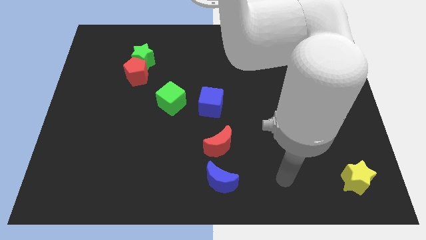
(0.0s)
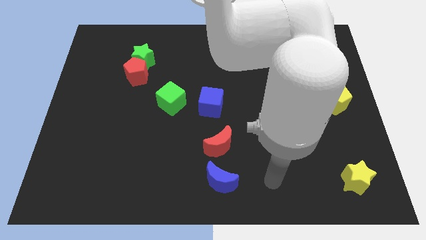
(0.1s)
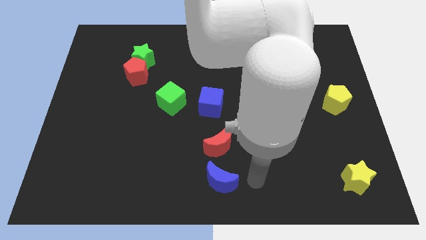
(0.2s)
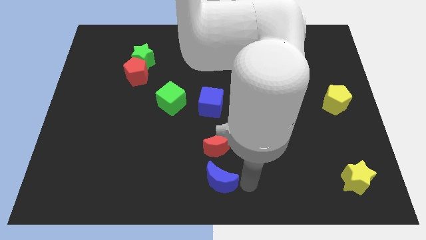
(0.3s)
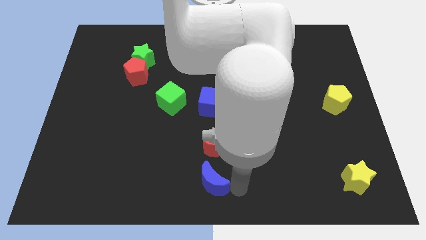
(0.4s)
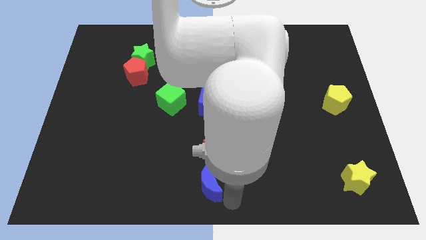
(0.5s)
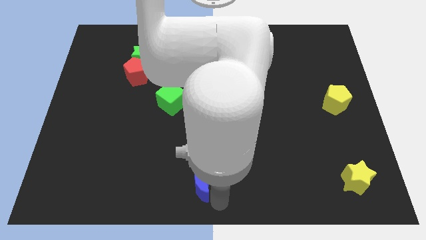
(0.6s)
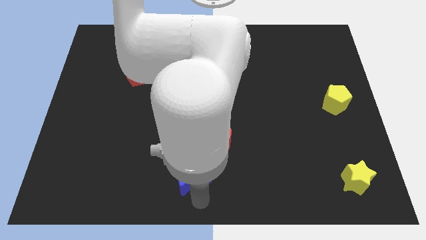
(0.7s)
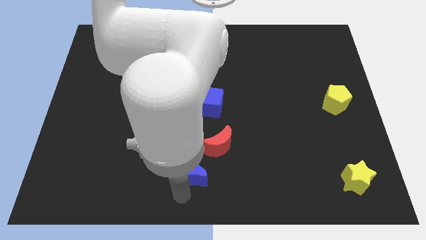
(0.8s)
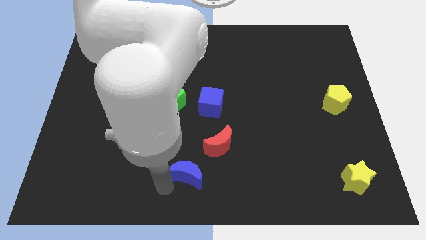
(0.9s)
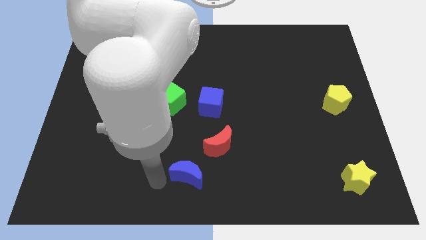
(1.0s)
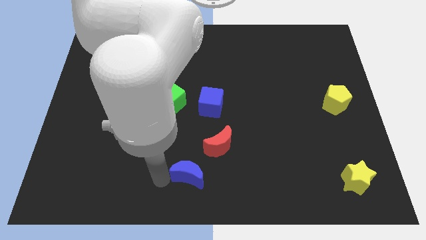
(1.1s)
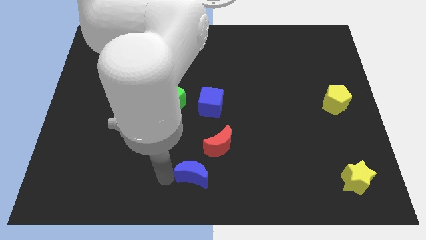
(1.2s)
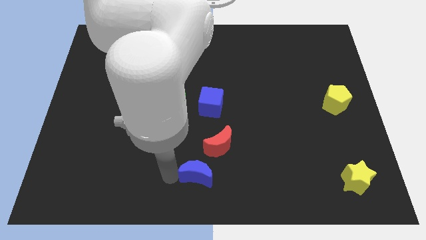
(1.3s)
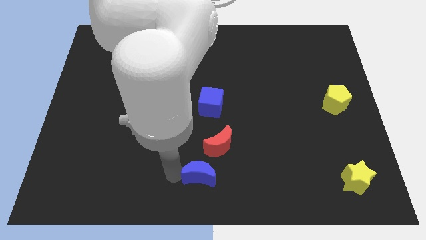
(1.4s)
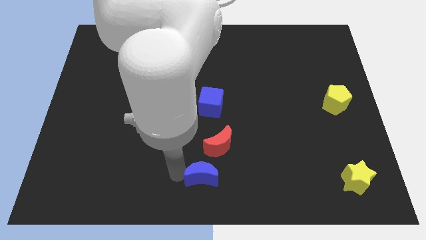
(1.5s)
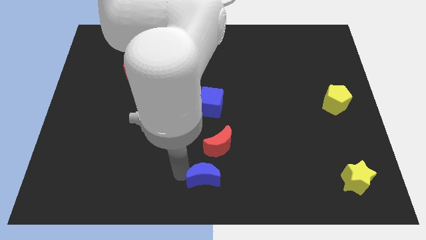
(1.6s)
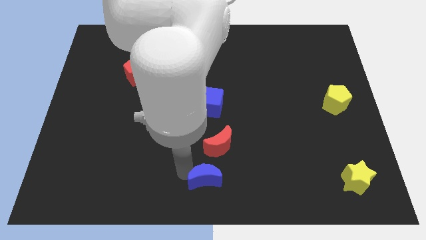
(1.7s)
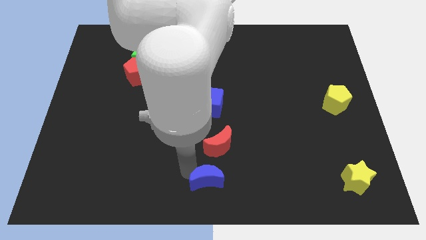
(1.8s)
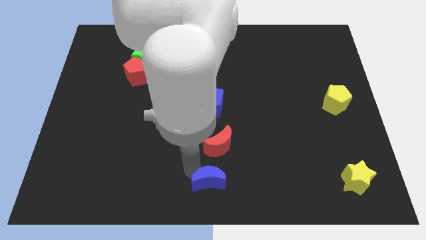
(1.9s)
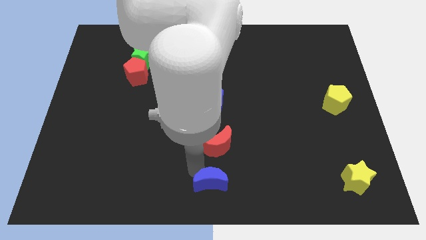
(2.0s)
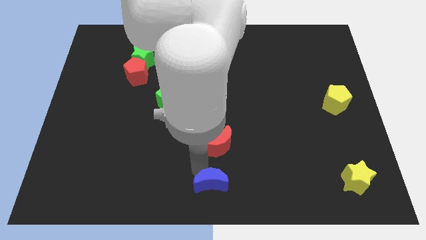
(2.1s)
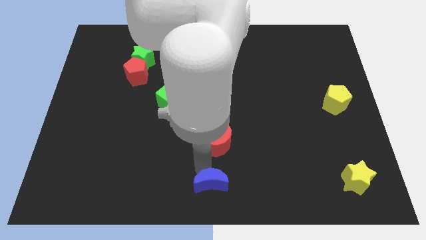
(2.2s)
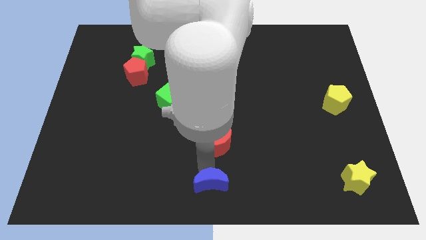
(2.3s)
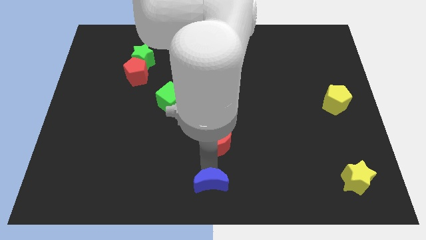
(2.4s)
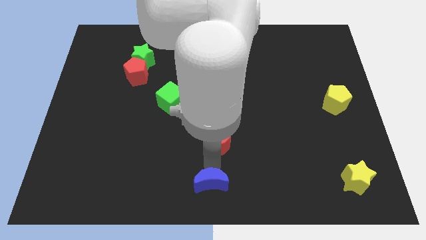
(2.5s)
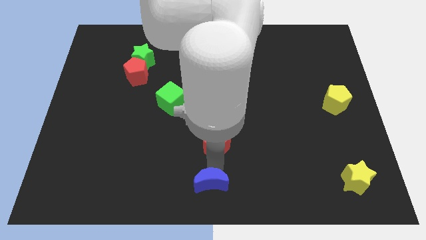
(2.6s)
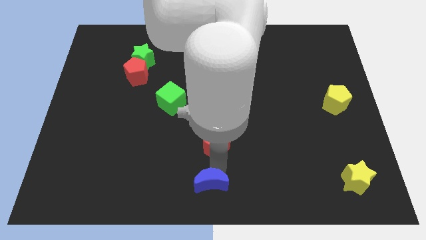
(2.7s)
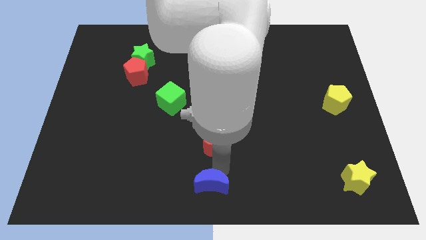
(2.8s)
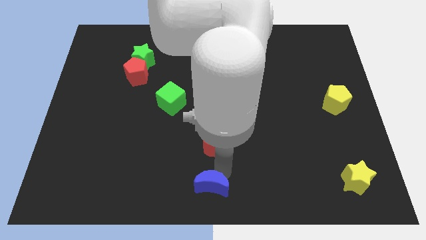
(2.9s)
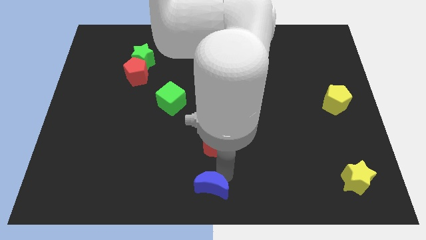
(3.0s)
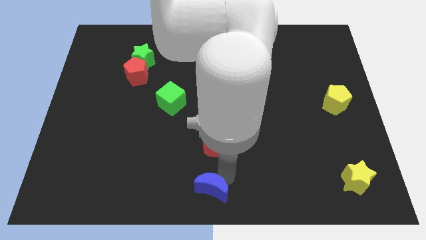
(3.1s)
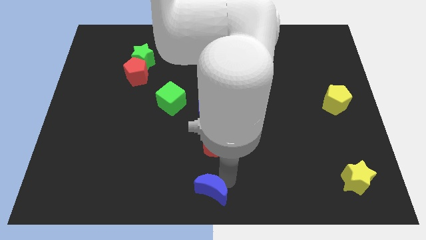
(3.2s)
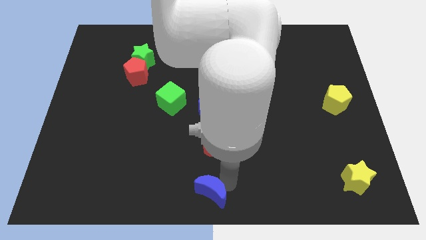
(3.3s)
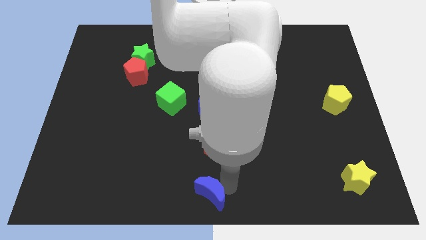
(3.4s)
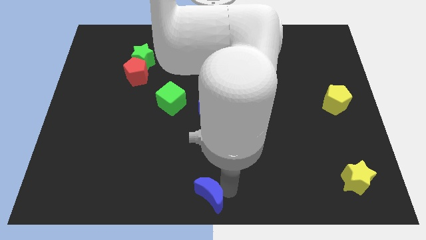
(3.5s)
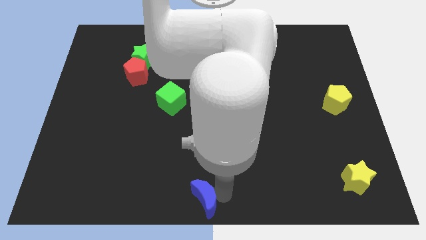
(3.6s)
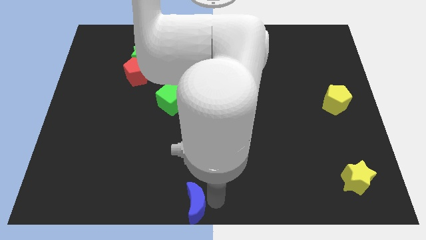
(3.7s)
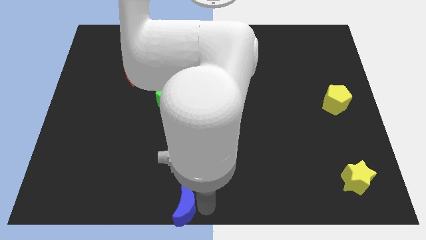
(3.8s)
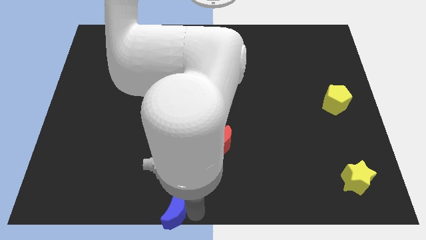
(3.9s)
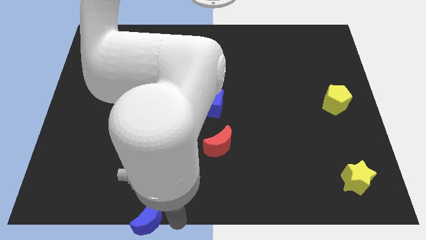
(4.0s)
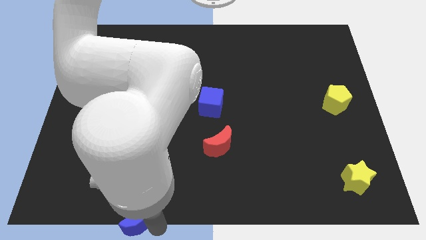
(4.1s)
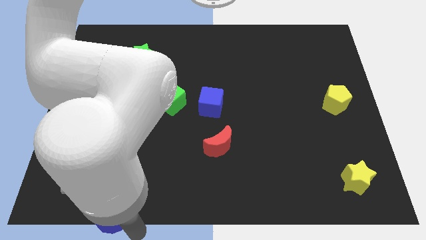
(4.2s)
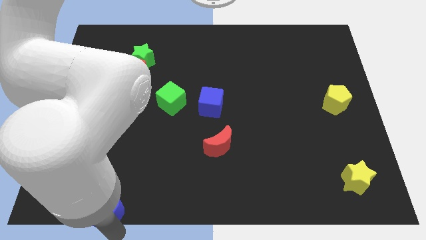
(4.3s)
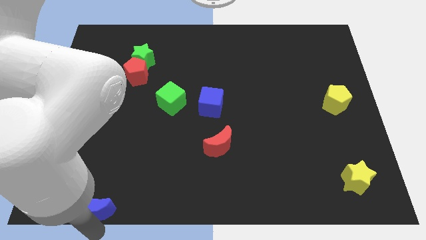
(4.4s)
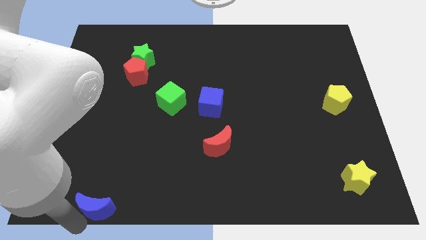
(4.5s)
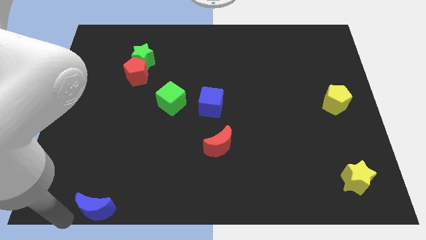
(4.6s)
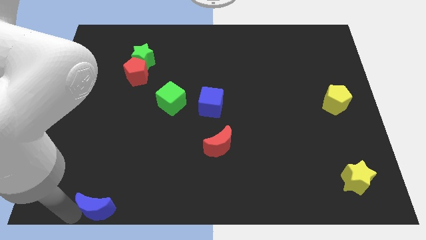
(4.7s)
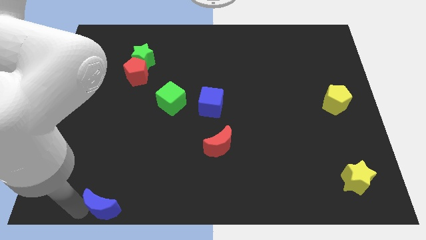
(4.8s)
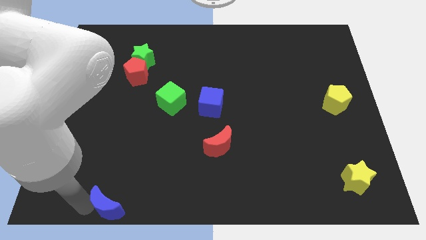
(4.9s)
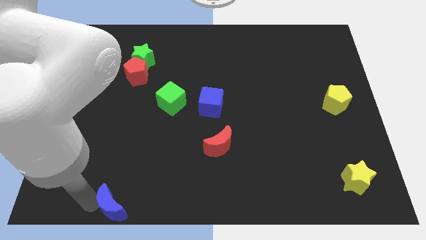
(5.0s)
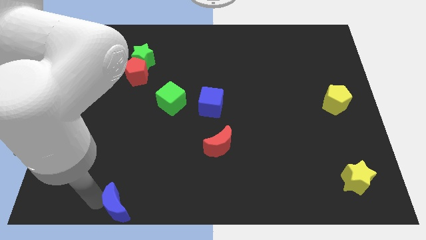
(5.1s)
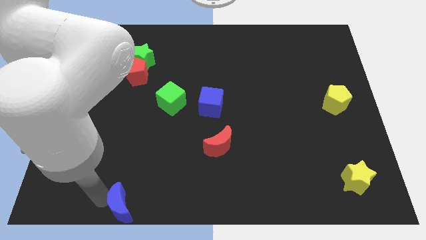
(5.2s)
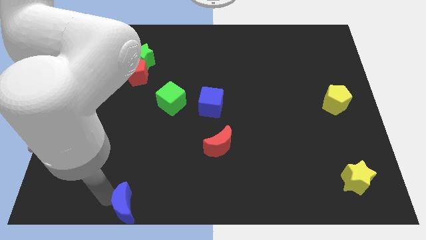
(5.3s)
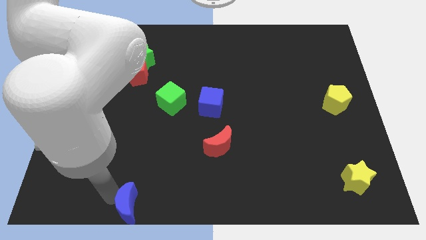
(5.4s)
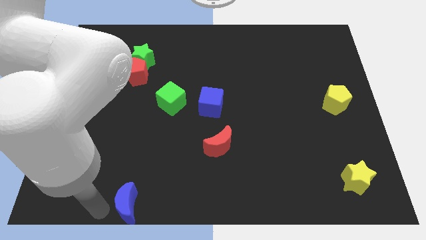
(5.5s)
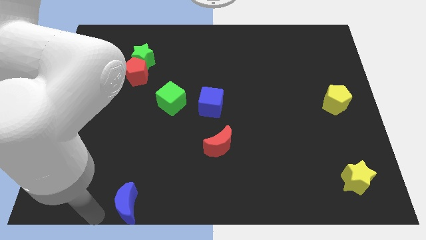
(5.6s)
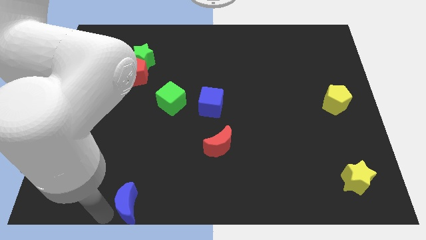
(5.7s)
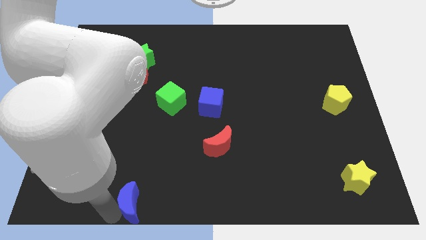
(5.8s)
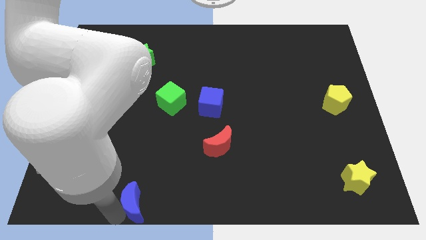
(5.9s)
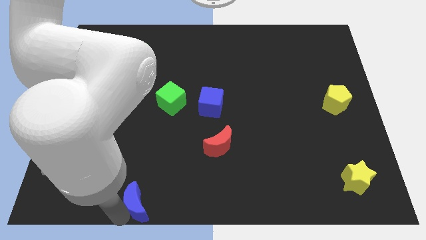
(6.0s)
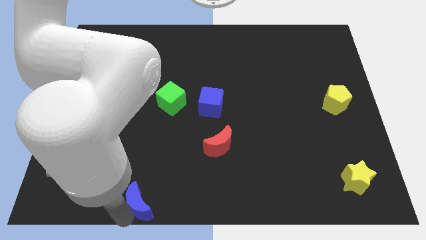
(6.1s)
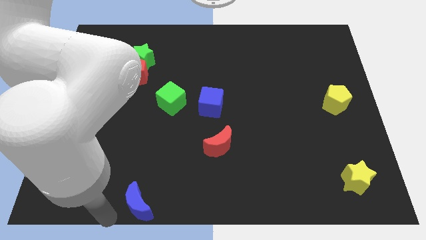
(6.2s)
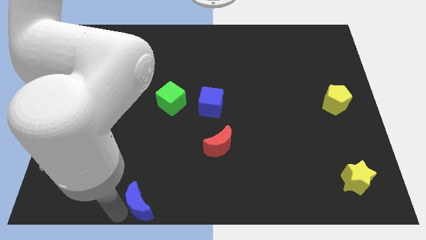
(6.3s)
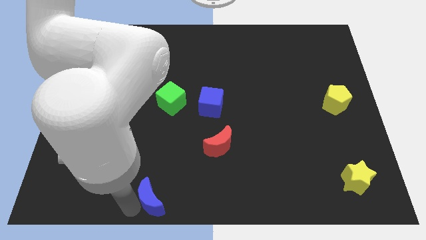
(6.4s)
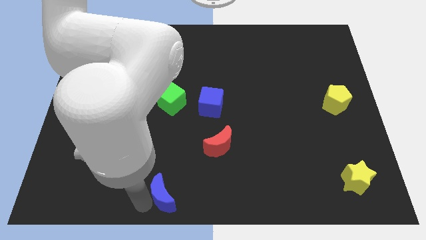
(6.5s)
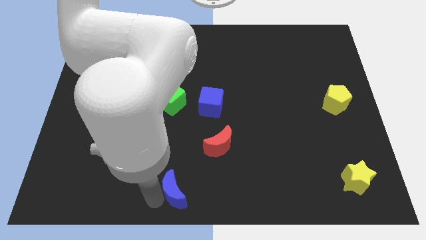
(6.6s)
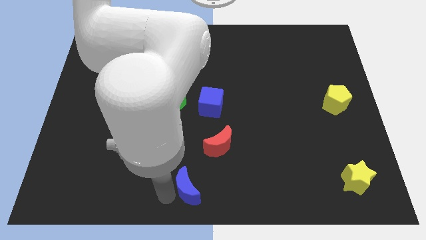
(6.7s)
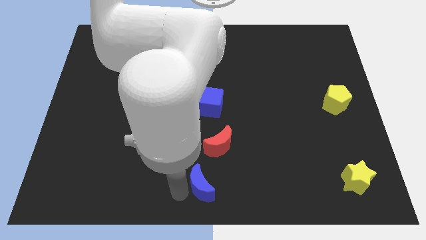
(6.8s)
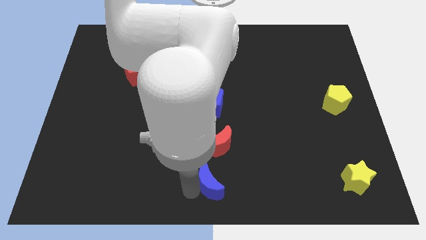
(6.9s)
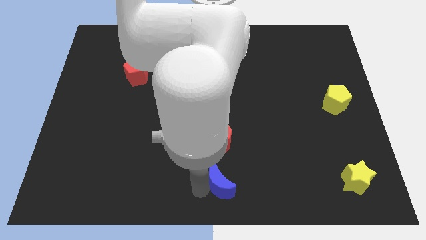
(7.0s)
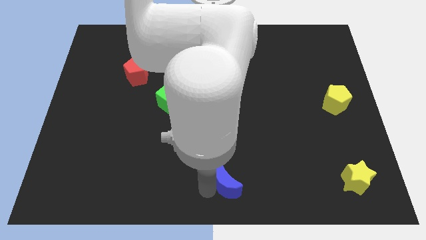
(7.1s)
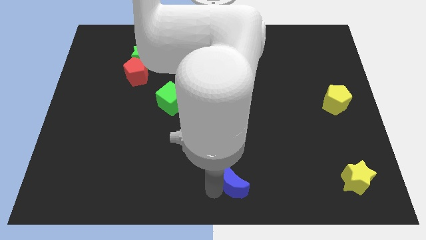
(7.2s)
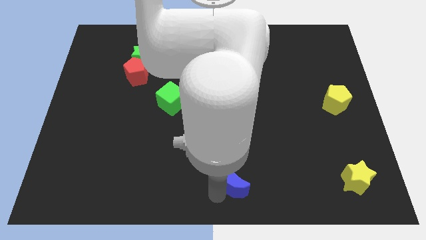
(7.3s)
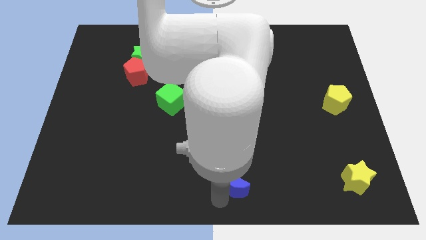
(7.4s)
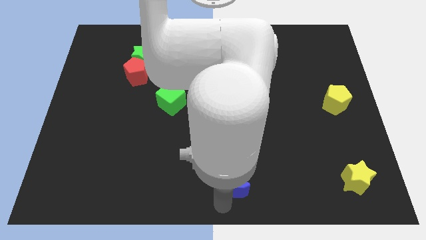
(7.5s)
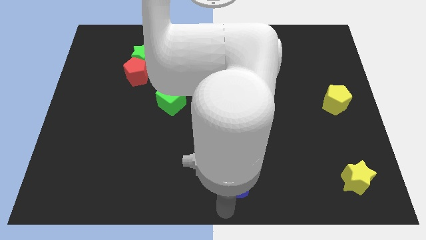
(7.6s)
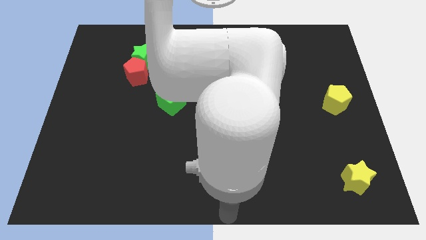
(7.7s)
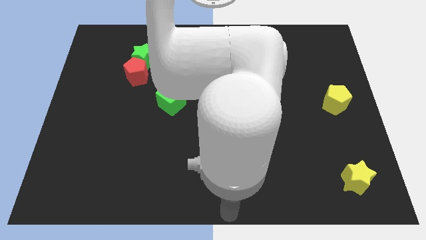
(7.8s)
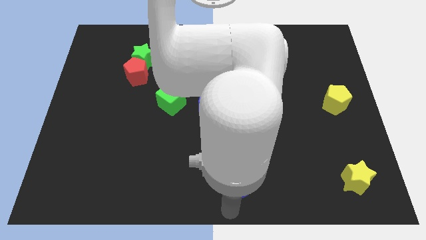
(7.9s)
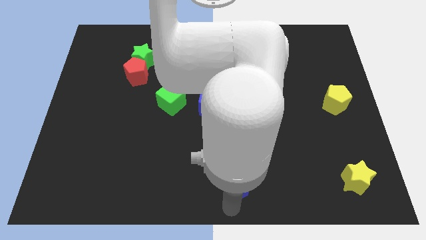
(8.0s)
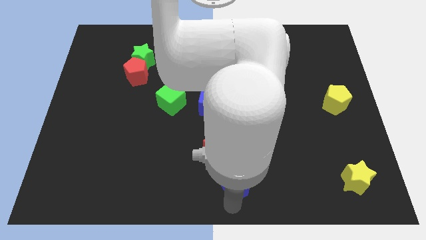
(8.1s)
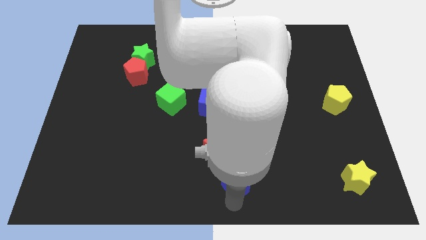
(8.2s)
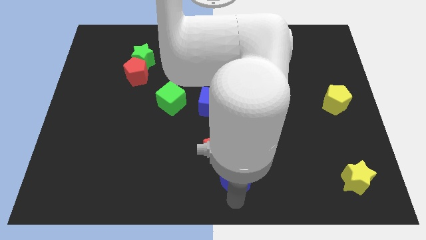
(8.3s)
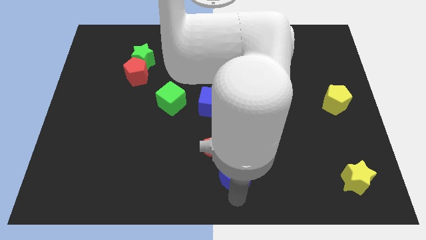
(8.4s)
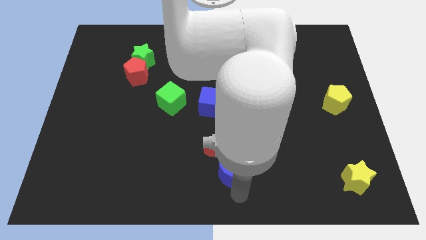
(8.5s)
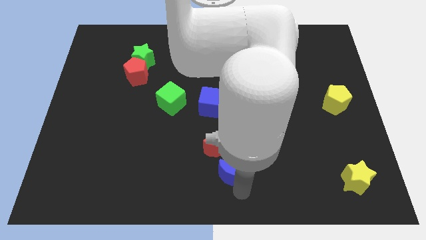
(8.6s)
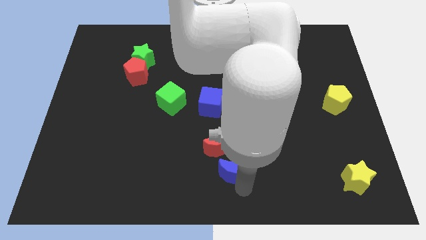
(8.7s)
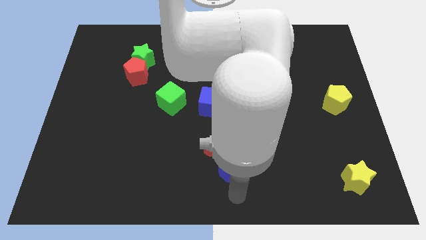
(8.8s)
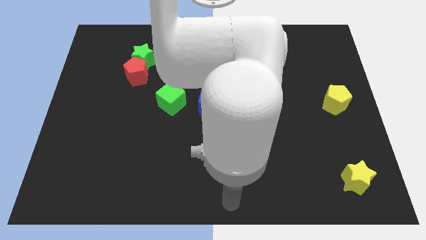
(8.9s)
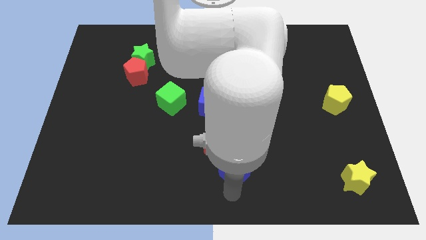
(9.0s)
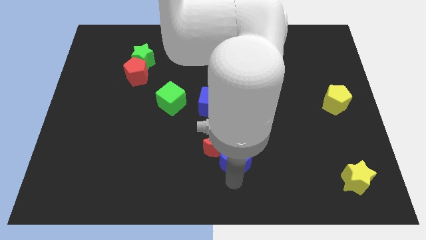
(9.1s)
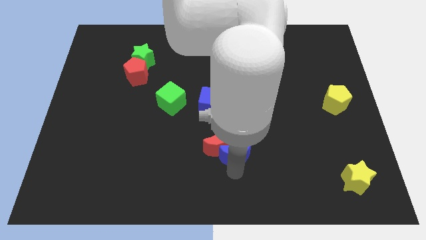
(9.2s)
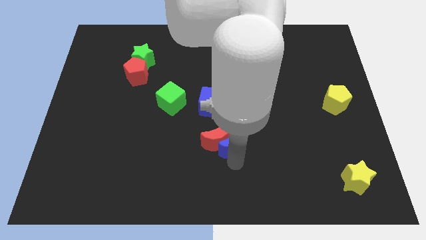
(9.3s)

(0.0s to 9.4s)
slide the blue moon to the top right side of the red moon
